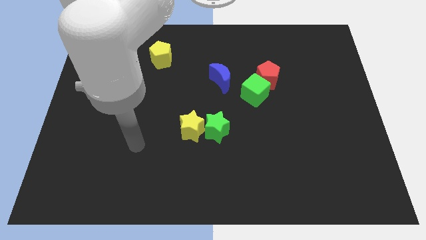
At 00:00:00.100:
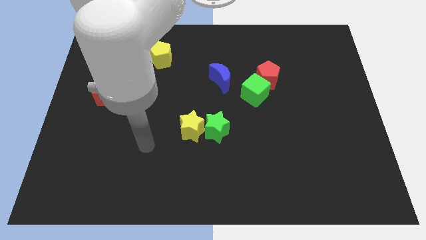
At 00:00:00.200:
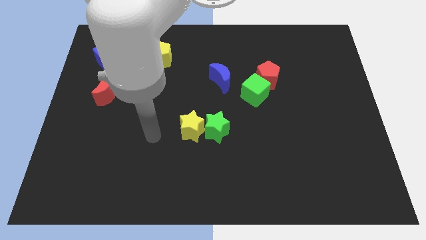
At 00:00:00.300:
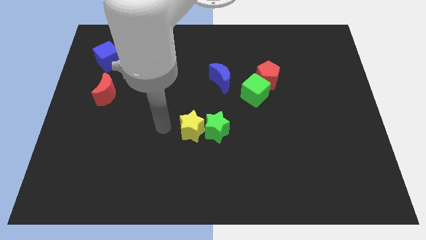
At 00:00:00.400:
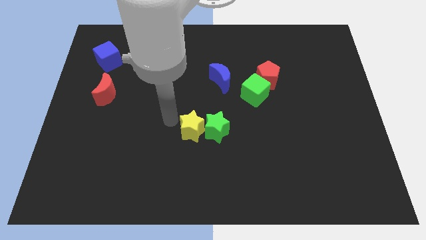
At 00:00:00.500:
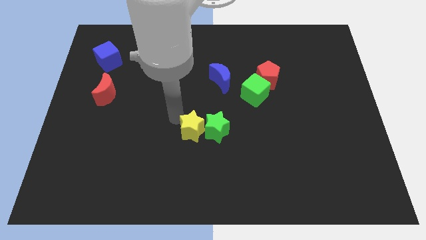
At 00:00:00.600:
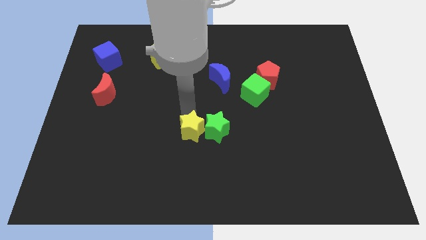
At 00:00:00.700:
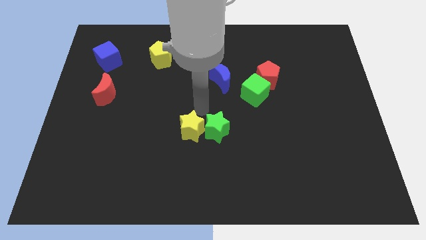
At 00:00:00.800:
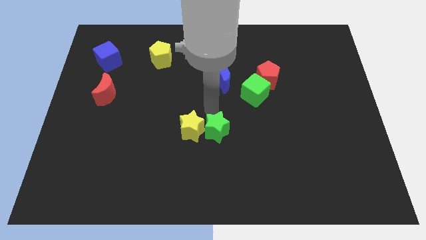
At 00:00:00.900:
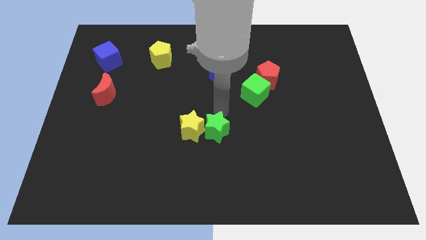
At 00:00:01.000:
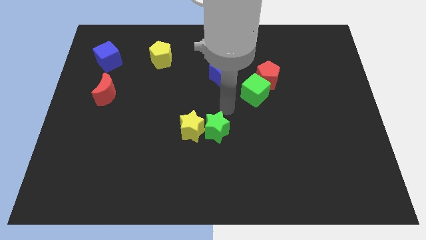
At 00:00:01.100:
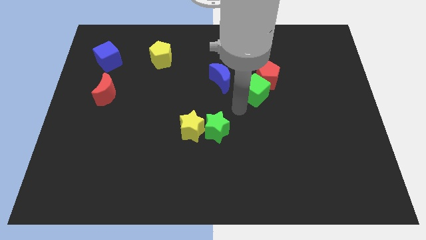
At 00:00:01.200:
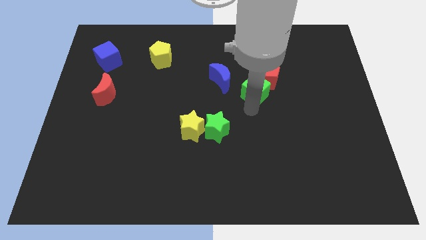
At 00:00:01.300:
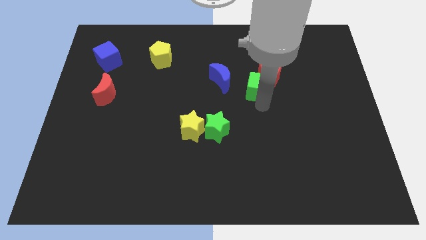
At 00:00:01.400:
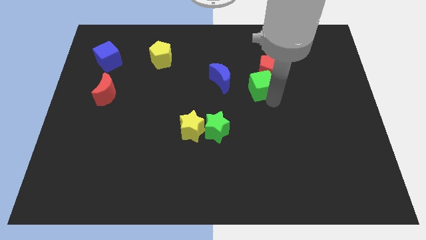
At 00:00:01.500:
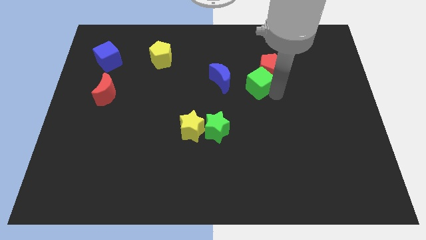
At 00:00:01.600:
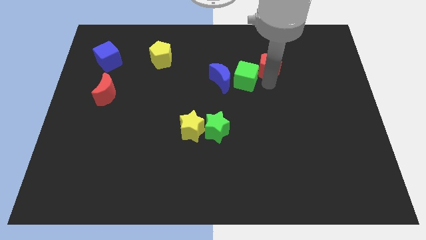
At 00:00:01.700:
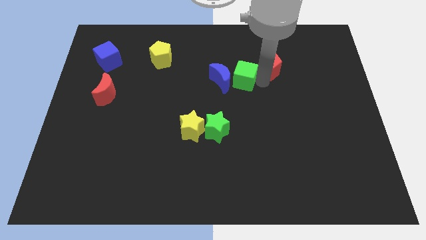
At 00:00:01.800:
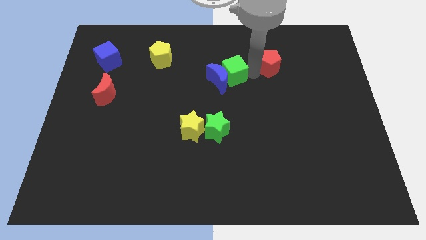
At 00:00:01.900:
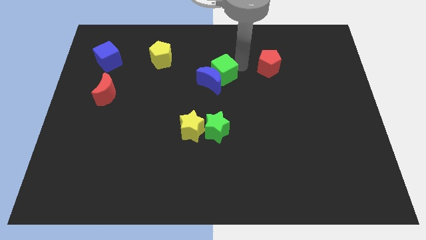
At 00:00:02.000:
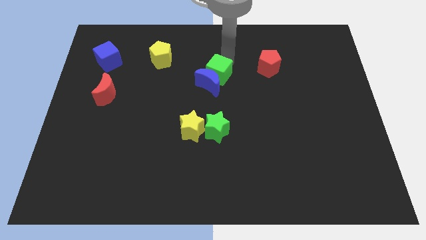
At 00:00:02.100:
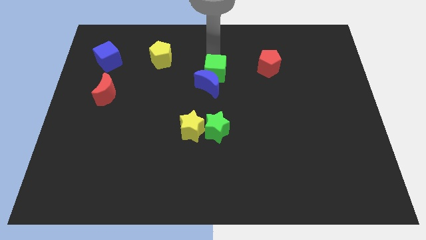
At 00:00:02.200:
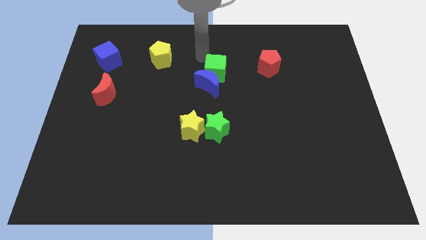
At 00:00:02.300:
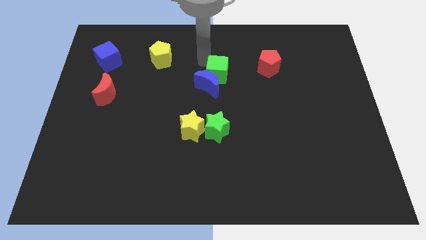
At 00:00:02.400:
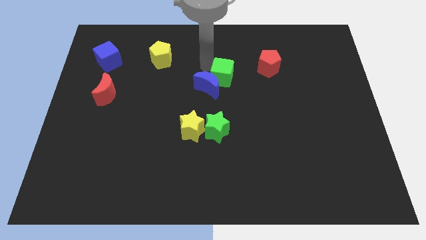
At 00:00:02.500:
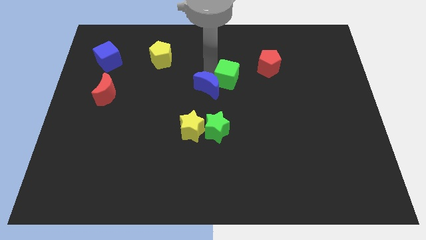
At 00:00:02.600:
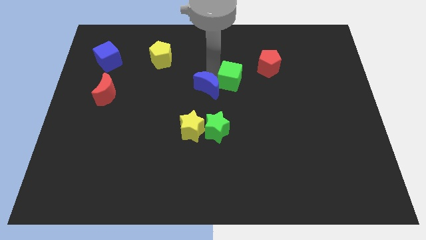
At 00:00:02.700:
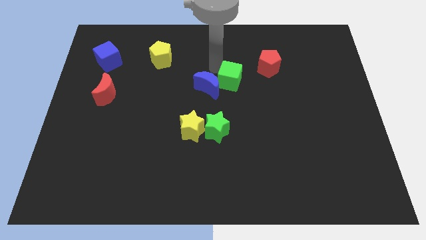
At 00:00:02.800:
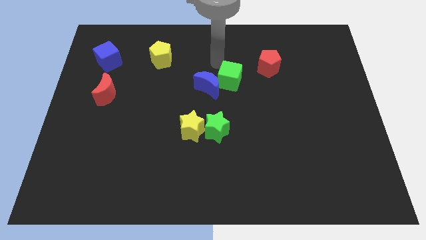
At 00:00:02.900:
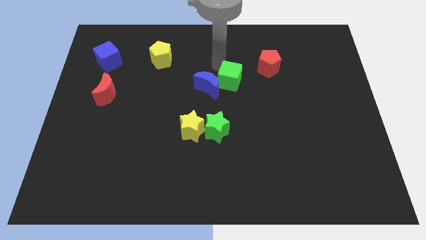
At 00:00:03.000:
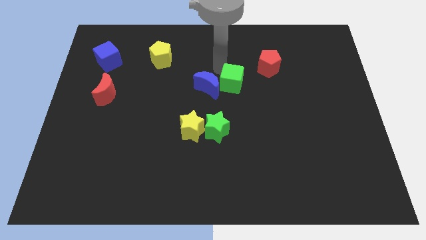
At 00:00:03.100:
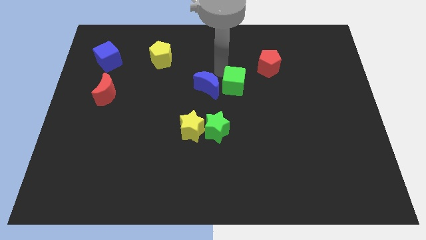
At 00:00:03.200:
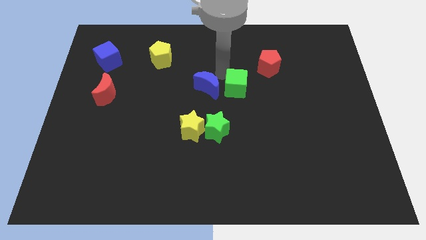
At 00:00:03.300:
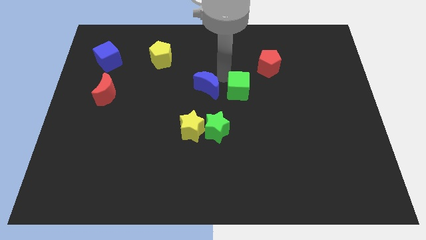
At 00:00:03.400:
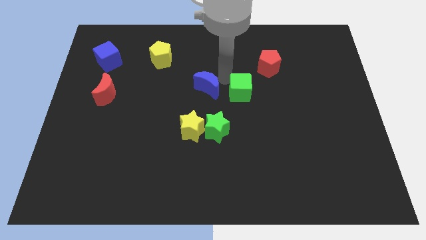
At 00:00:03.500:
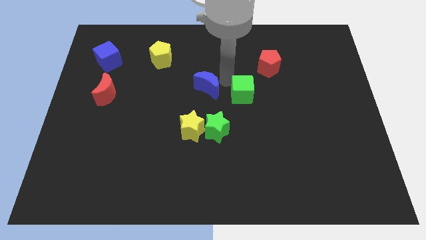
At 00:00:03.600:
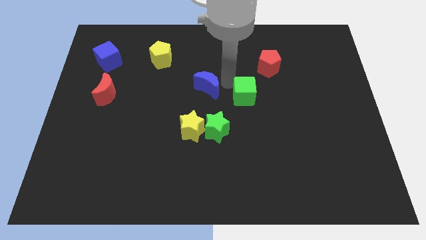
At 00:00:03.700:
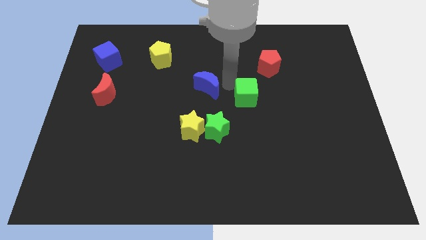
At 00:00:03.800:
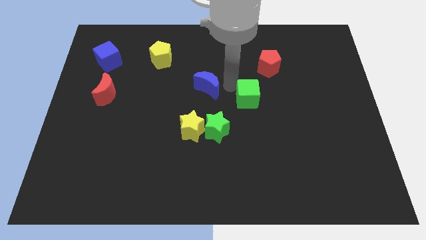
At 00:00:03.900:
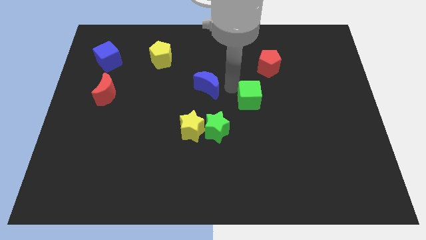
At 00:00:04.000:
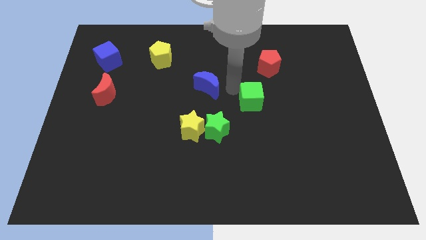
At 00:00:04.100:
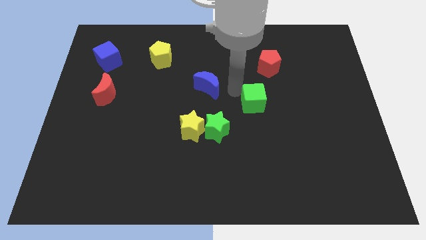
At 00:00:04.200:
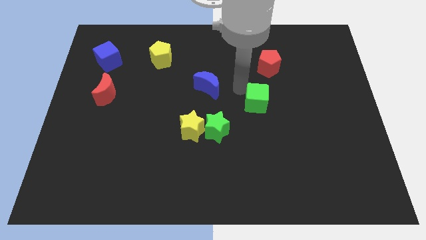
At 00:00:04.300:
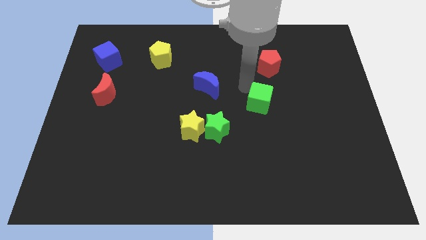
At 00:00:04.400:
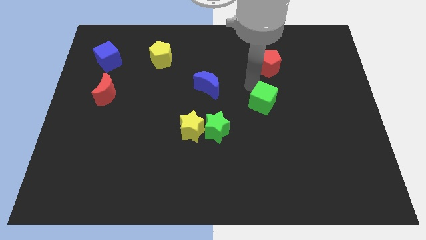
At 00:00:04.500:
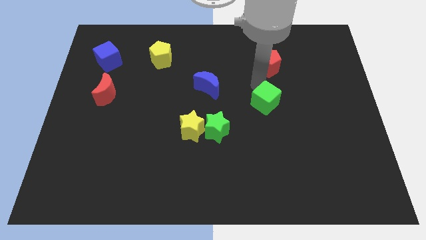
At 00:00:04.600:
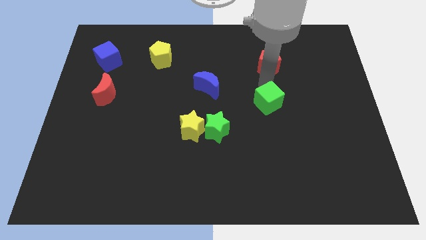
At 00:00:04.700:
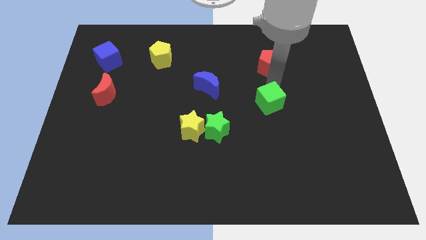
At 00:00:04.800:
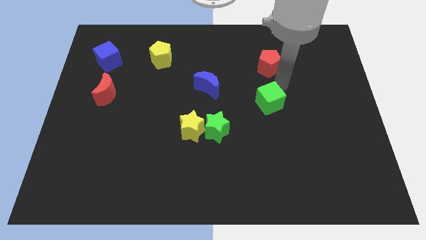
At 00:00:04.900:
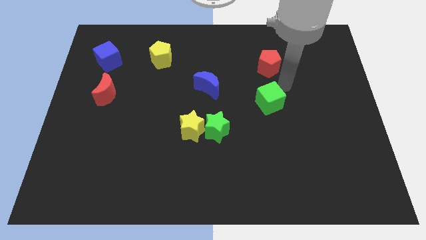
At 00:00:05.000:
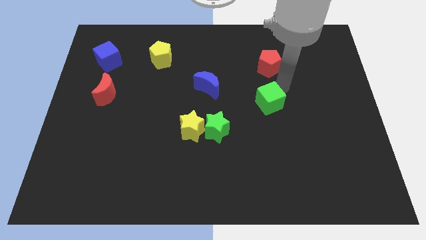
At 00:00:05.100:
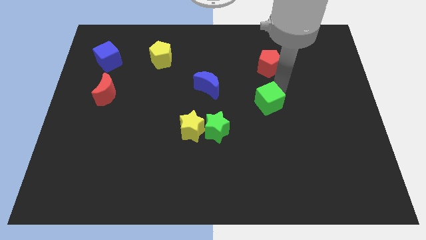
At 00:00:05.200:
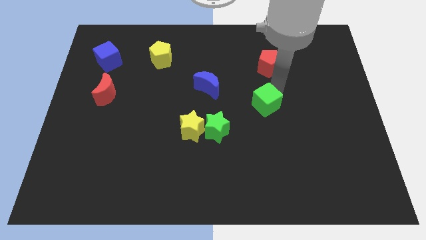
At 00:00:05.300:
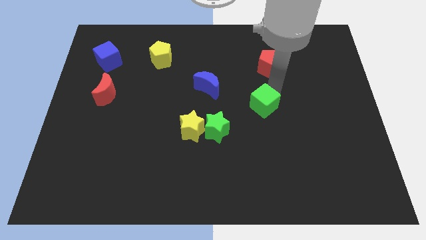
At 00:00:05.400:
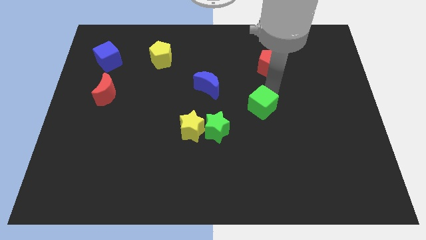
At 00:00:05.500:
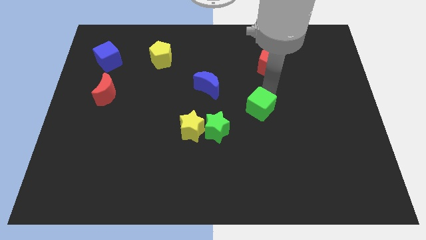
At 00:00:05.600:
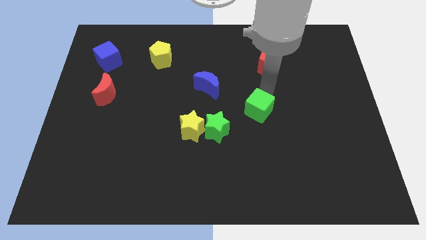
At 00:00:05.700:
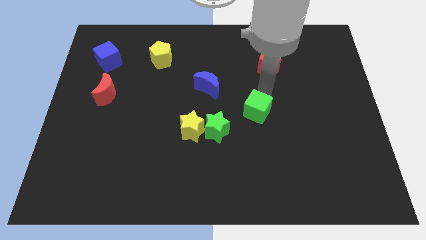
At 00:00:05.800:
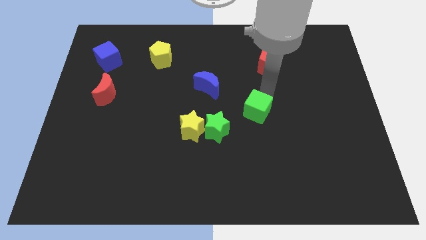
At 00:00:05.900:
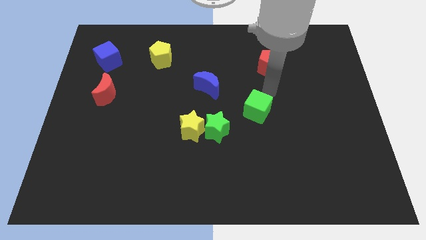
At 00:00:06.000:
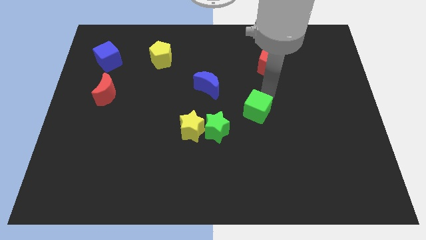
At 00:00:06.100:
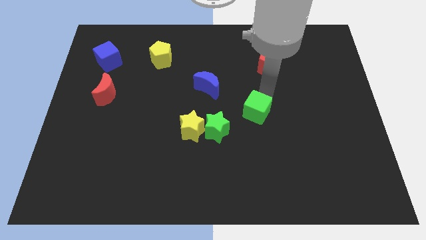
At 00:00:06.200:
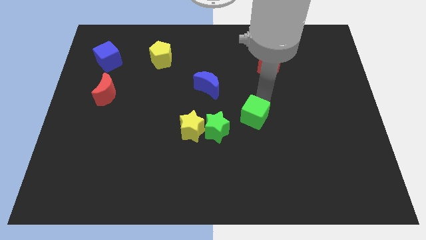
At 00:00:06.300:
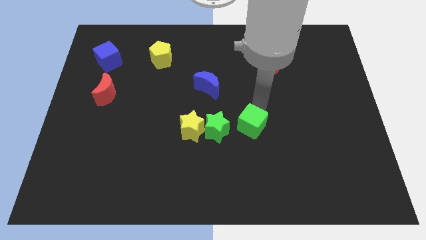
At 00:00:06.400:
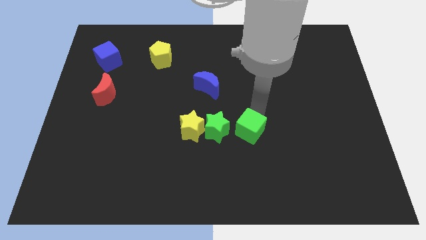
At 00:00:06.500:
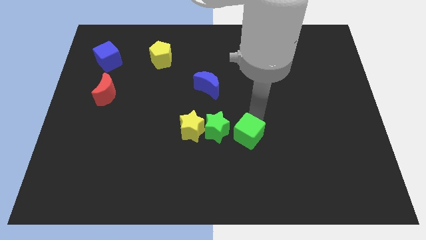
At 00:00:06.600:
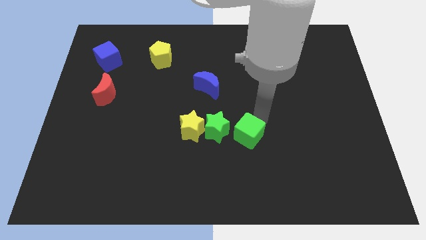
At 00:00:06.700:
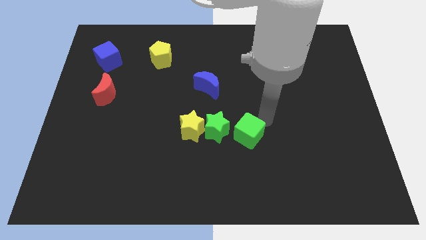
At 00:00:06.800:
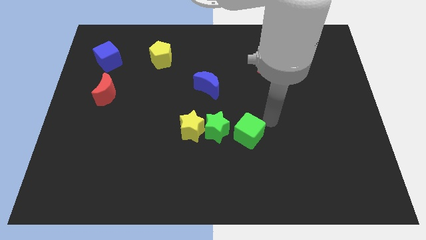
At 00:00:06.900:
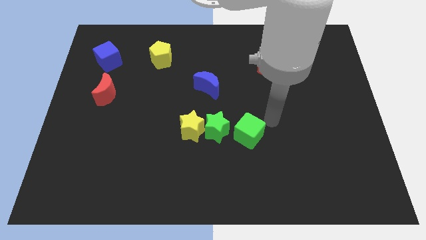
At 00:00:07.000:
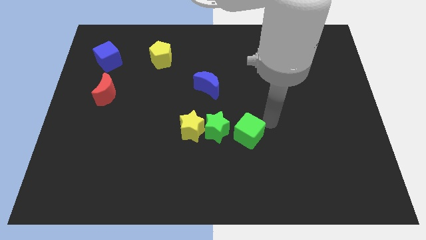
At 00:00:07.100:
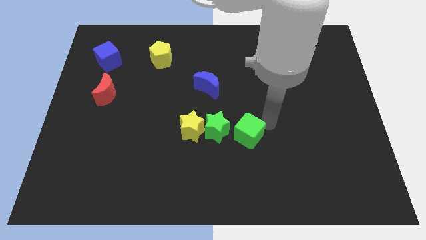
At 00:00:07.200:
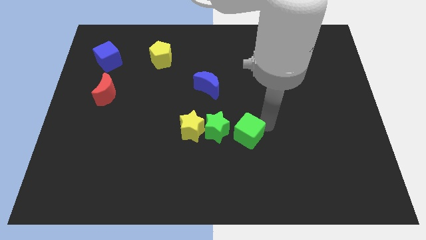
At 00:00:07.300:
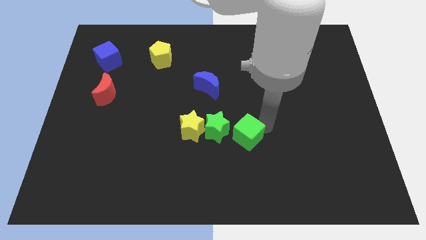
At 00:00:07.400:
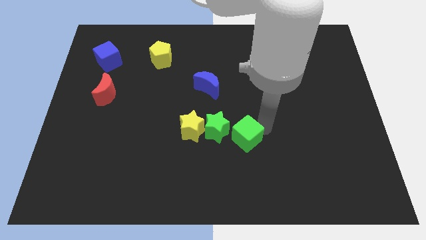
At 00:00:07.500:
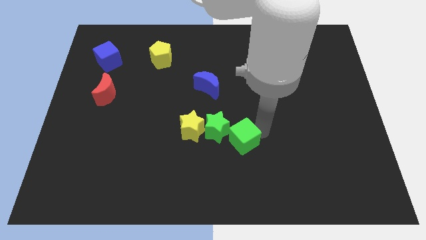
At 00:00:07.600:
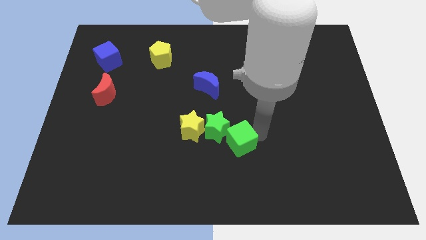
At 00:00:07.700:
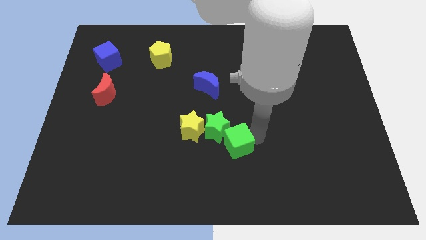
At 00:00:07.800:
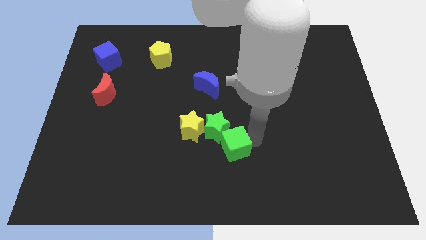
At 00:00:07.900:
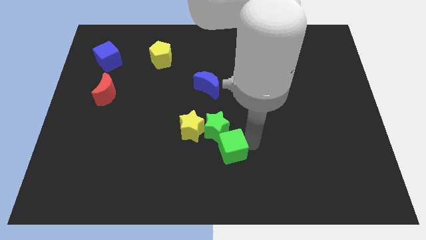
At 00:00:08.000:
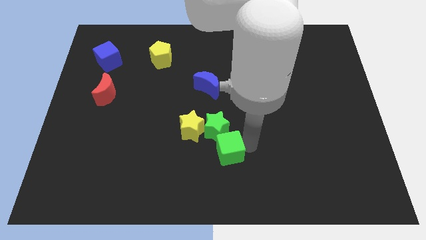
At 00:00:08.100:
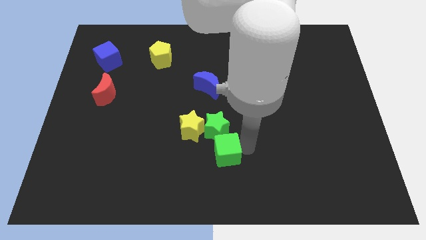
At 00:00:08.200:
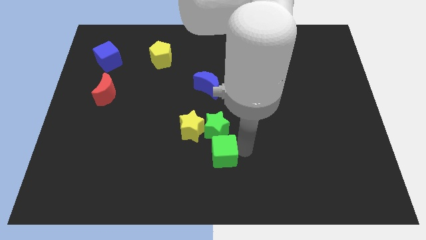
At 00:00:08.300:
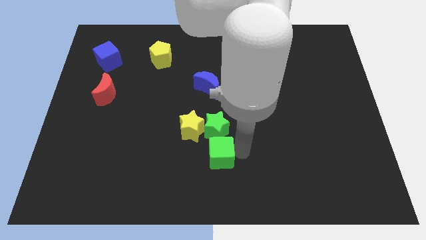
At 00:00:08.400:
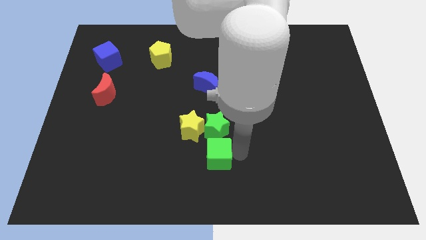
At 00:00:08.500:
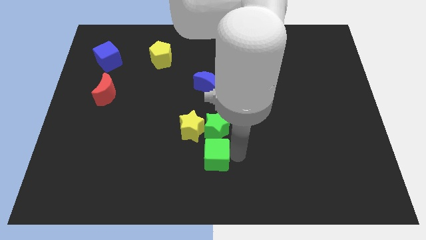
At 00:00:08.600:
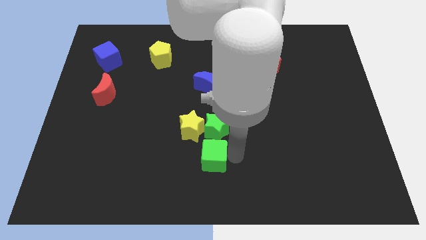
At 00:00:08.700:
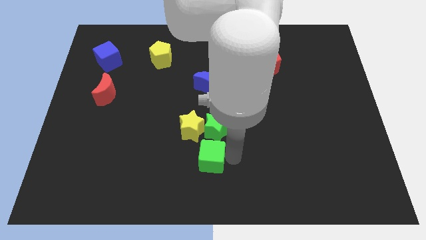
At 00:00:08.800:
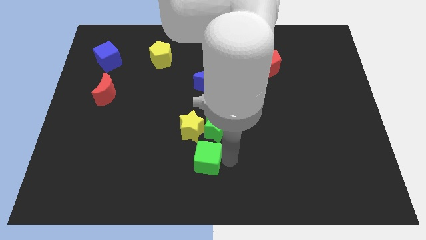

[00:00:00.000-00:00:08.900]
slide the green cube diagonally down and left
